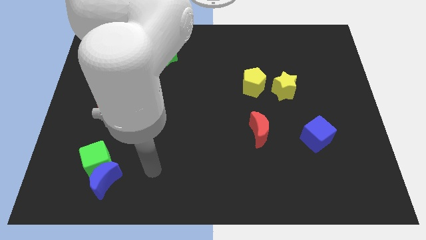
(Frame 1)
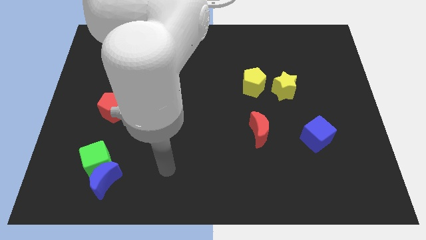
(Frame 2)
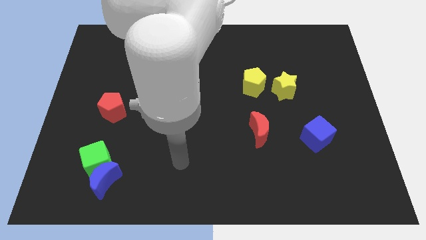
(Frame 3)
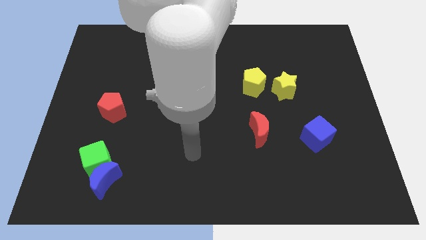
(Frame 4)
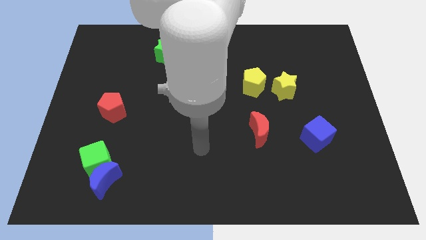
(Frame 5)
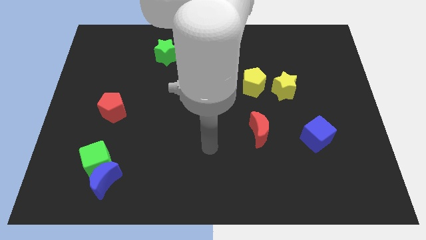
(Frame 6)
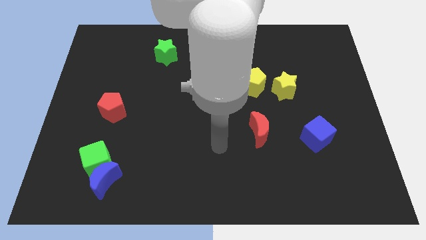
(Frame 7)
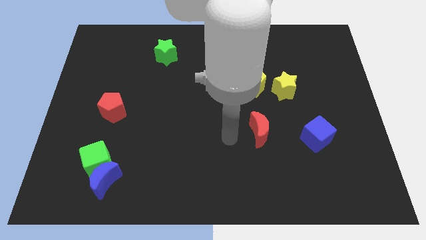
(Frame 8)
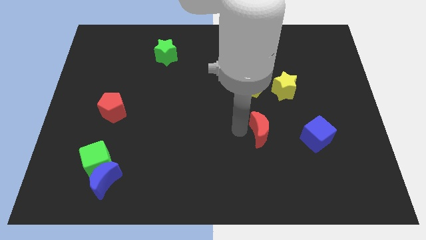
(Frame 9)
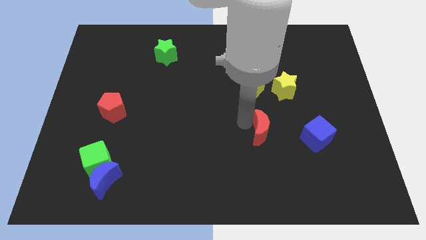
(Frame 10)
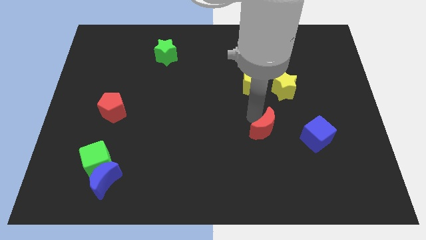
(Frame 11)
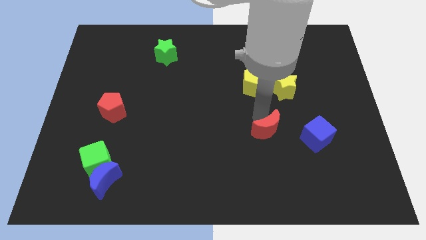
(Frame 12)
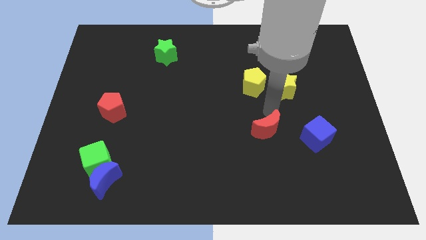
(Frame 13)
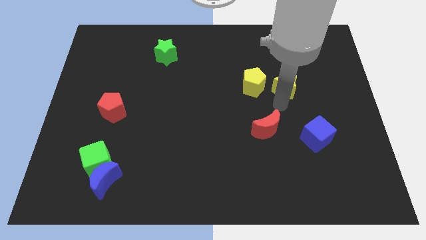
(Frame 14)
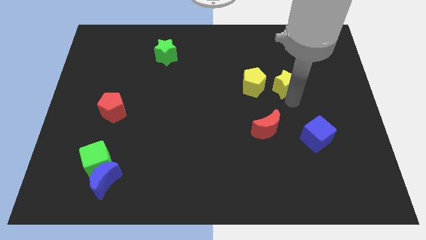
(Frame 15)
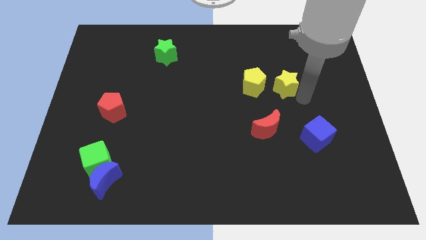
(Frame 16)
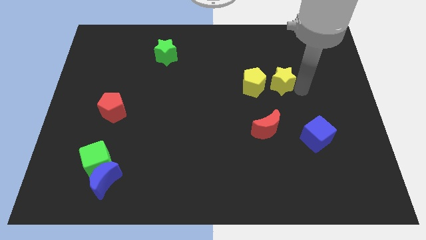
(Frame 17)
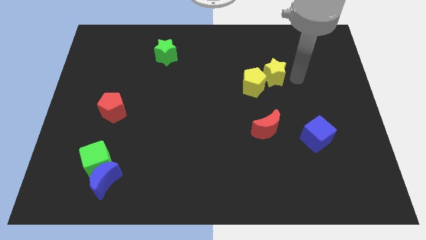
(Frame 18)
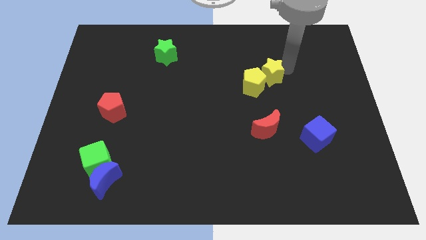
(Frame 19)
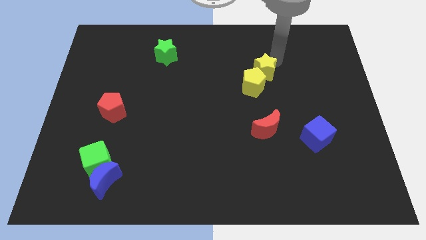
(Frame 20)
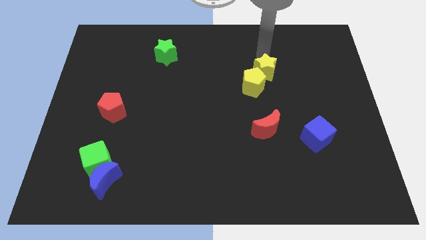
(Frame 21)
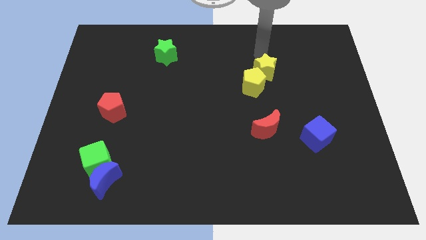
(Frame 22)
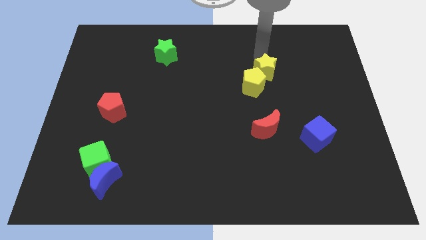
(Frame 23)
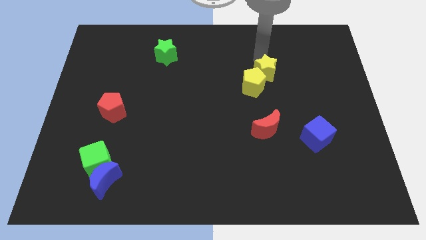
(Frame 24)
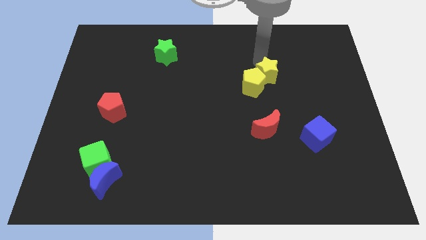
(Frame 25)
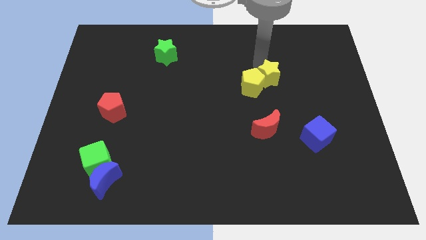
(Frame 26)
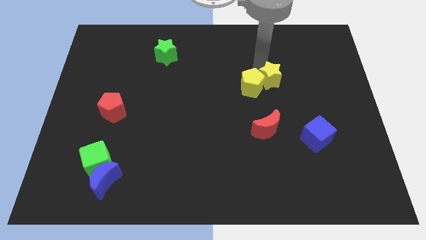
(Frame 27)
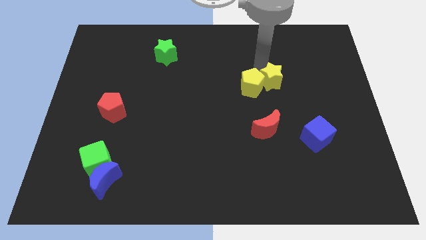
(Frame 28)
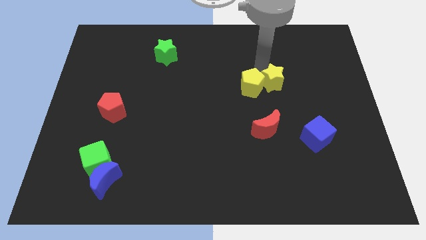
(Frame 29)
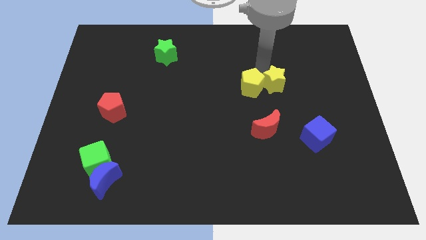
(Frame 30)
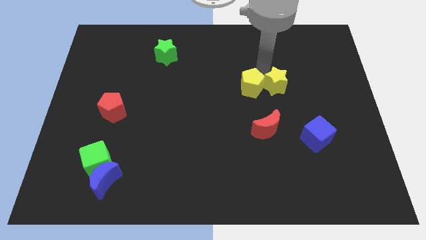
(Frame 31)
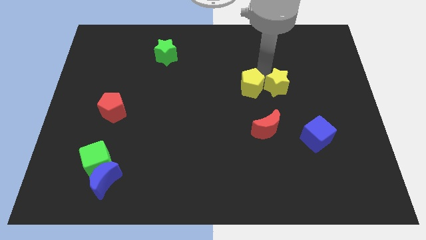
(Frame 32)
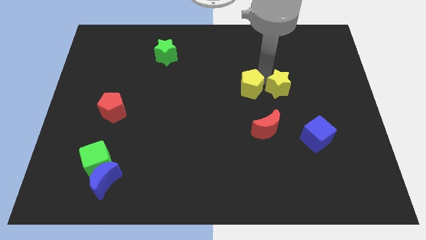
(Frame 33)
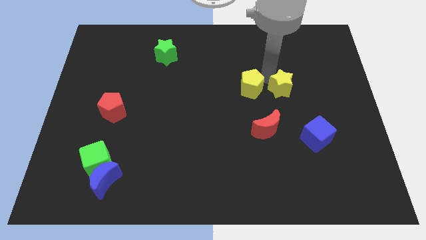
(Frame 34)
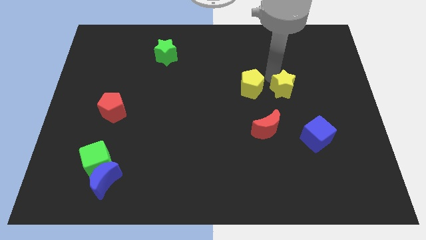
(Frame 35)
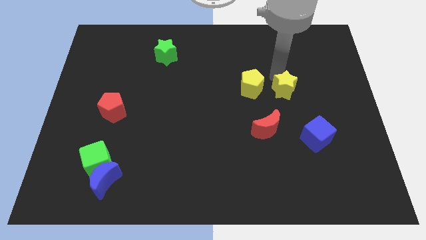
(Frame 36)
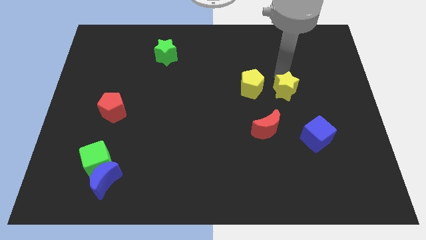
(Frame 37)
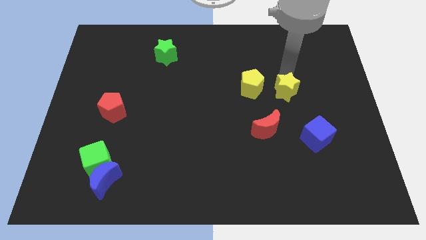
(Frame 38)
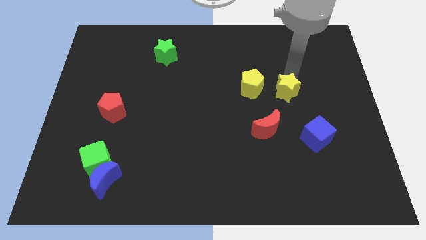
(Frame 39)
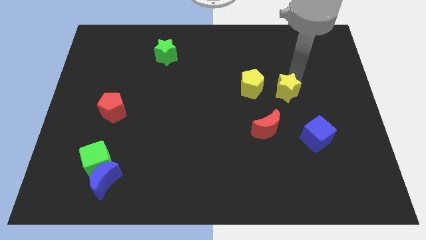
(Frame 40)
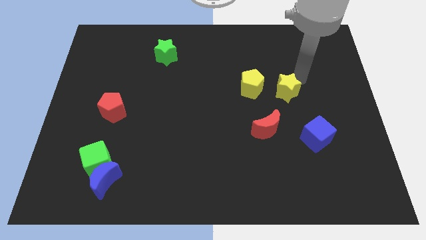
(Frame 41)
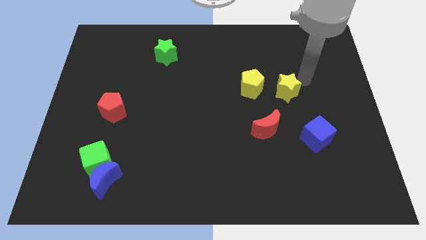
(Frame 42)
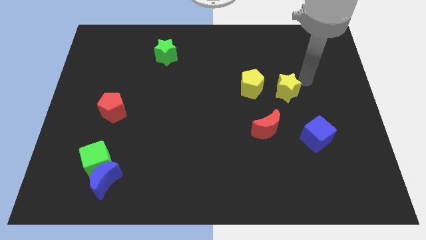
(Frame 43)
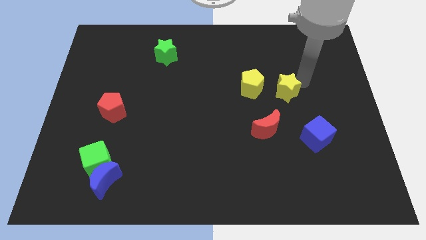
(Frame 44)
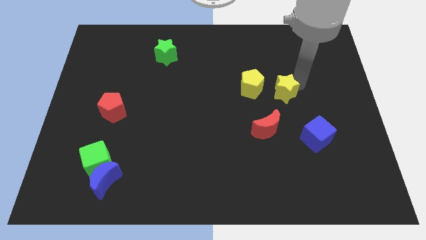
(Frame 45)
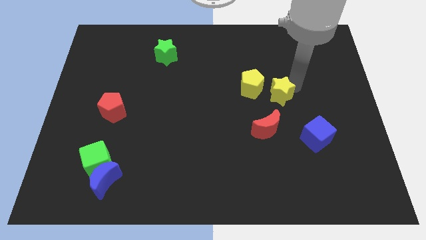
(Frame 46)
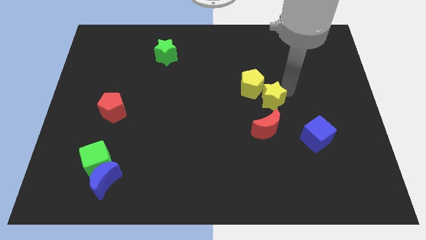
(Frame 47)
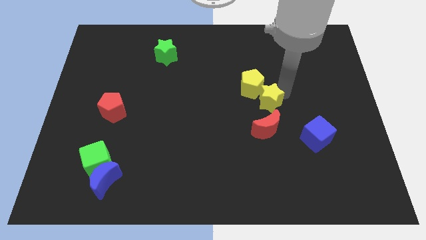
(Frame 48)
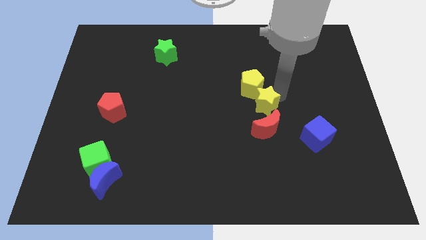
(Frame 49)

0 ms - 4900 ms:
move the yellow star diagonally downwards and to the left a bit

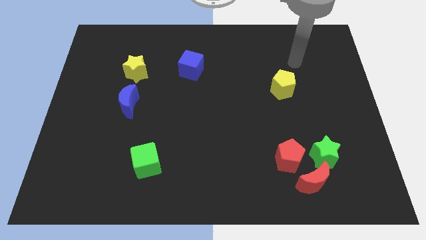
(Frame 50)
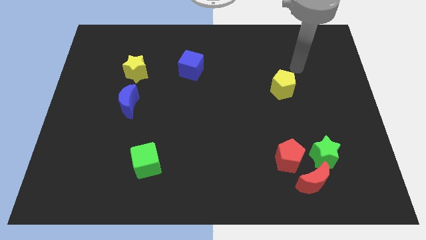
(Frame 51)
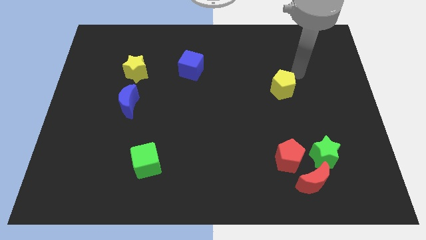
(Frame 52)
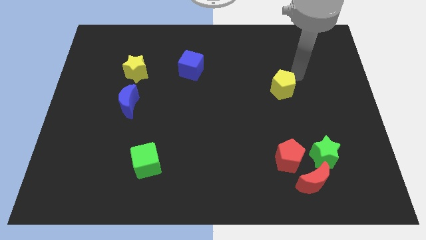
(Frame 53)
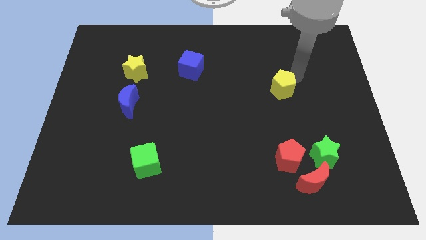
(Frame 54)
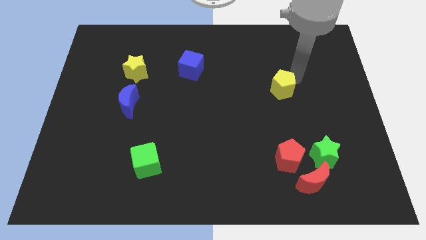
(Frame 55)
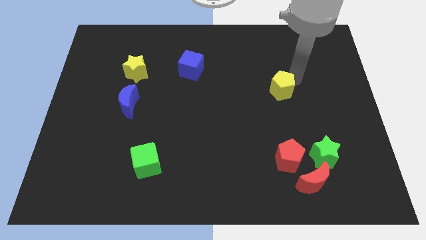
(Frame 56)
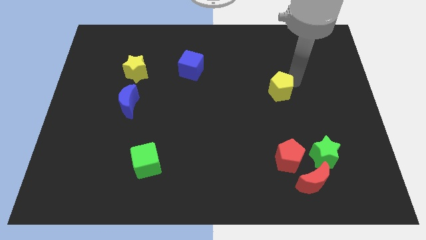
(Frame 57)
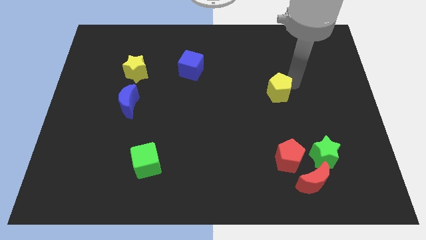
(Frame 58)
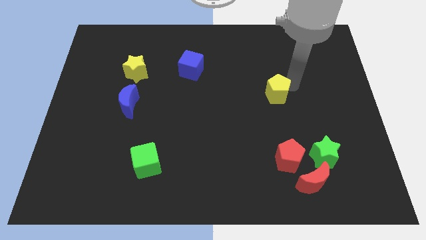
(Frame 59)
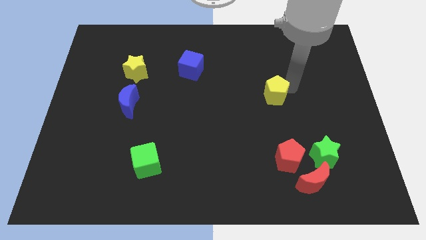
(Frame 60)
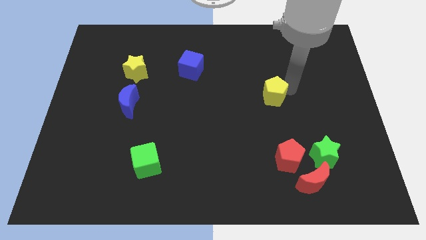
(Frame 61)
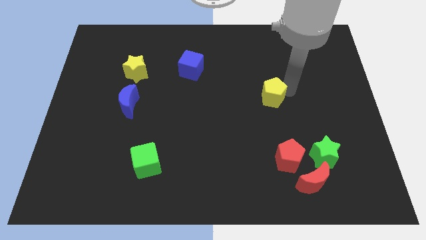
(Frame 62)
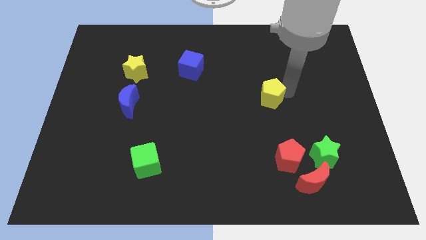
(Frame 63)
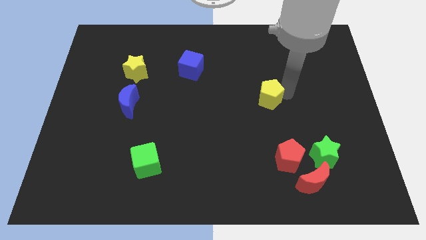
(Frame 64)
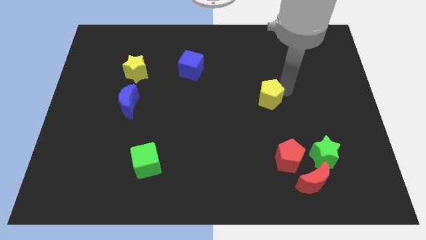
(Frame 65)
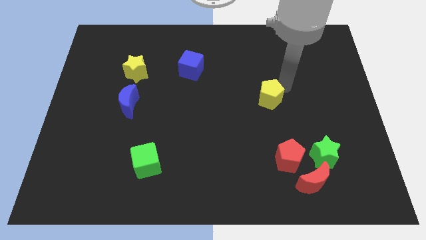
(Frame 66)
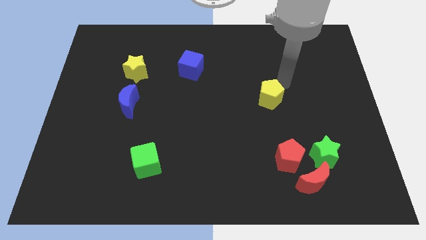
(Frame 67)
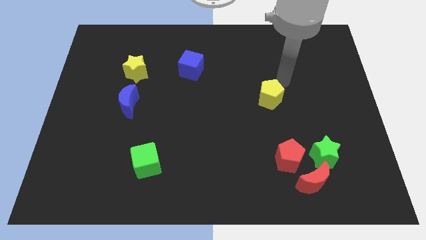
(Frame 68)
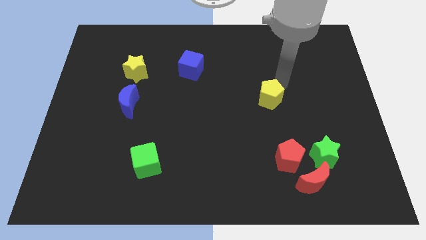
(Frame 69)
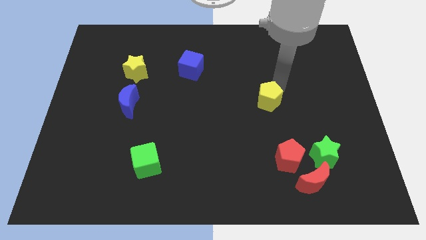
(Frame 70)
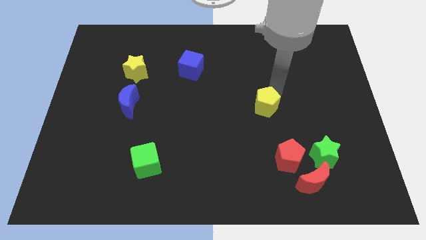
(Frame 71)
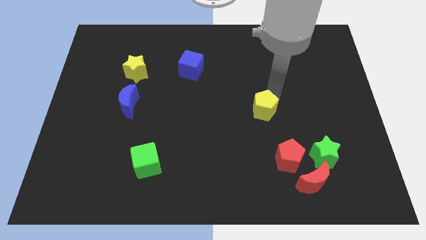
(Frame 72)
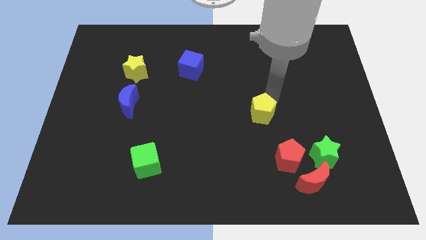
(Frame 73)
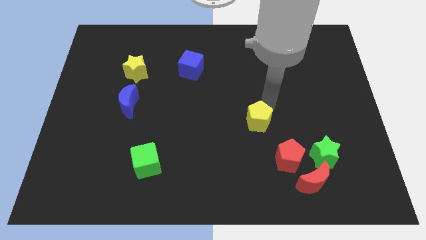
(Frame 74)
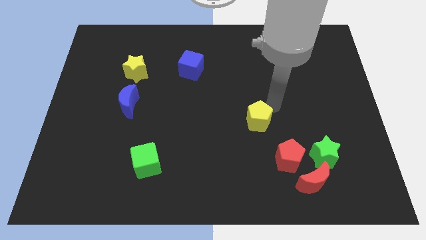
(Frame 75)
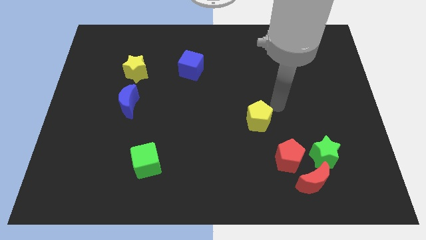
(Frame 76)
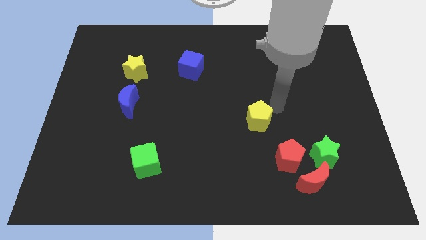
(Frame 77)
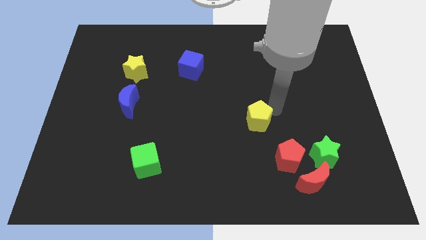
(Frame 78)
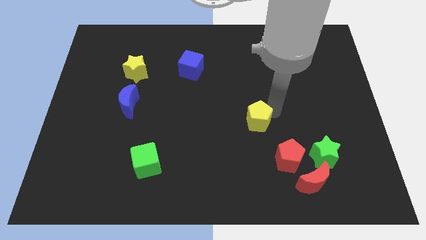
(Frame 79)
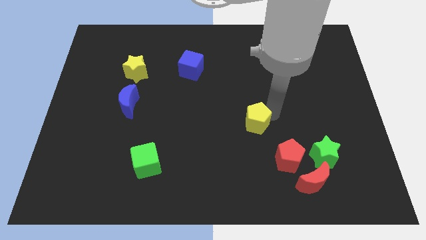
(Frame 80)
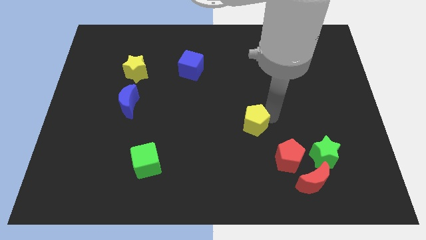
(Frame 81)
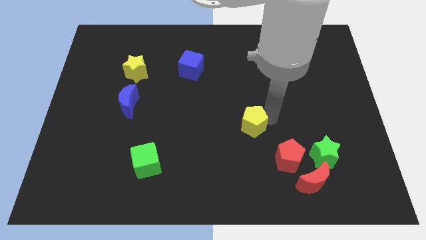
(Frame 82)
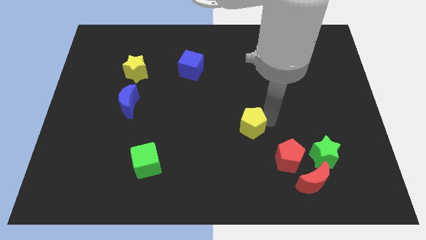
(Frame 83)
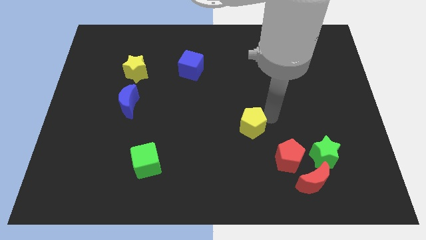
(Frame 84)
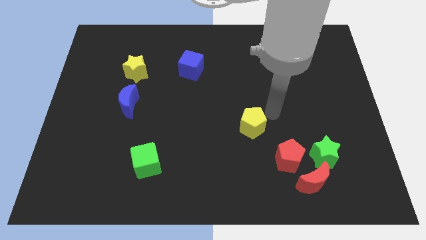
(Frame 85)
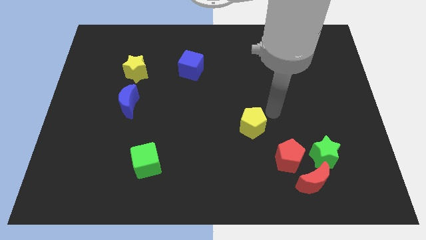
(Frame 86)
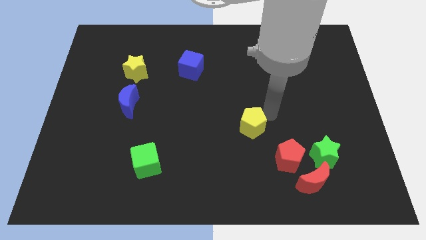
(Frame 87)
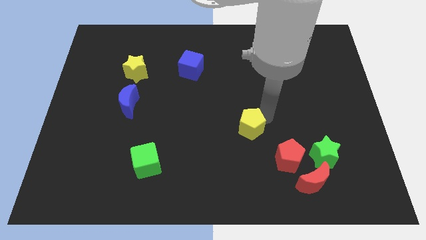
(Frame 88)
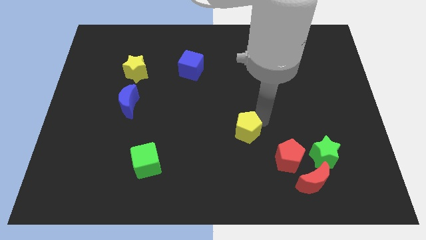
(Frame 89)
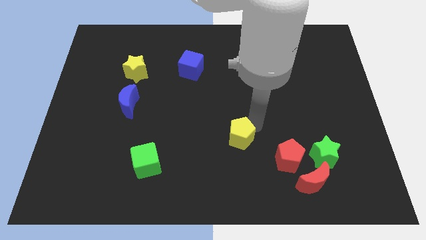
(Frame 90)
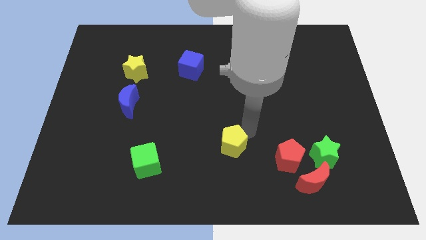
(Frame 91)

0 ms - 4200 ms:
slide the yellow pentagon diagonally down and to the left
